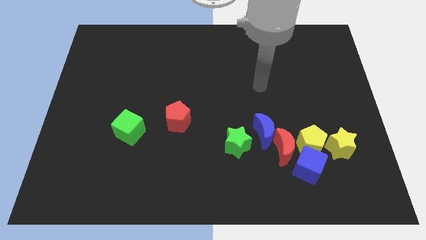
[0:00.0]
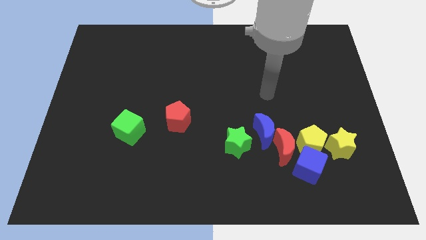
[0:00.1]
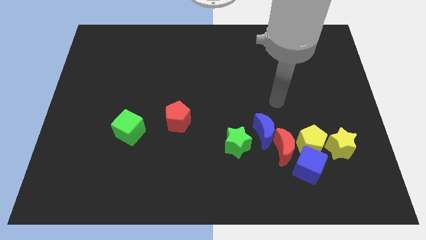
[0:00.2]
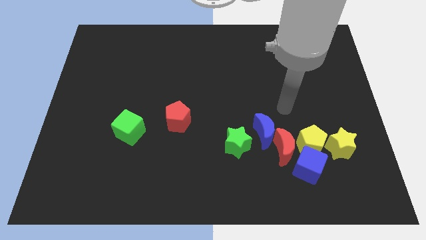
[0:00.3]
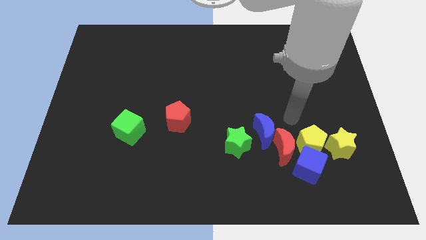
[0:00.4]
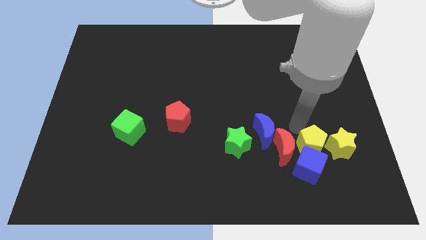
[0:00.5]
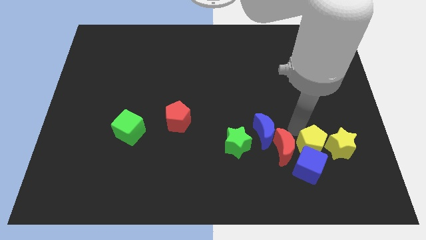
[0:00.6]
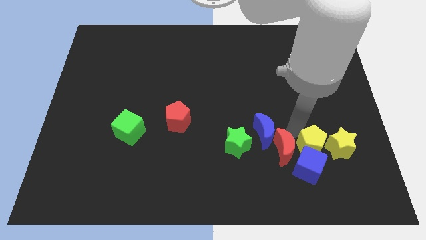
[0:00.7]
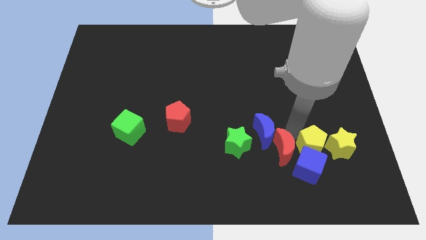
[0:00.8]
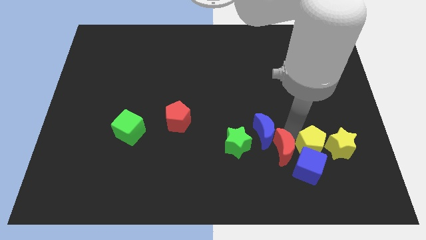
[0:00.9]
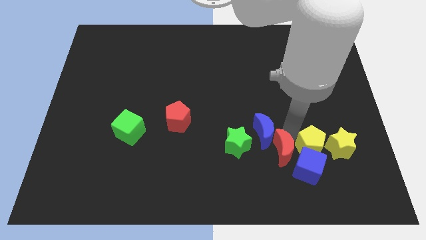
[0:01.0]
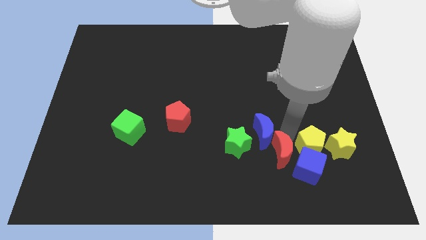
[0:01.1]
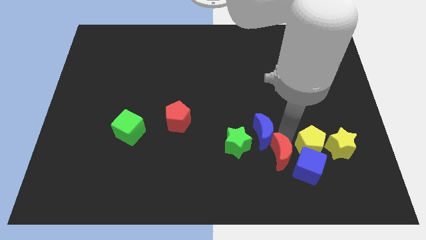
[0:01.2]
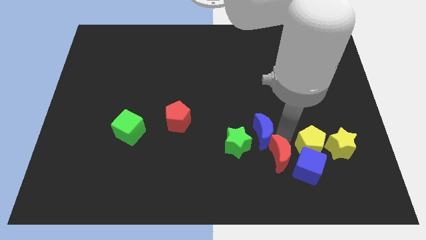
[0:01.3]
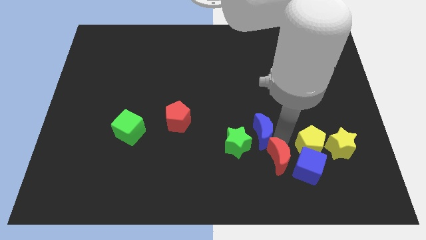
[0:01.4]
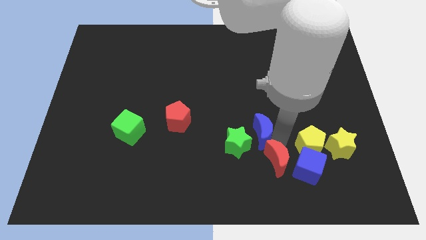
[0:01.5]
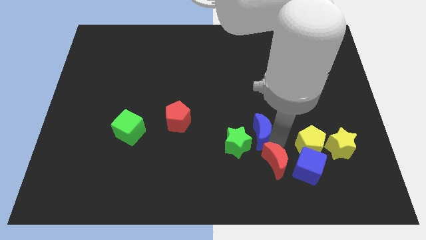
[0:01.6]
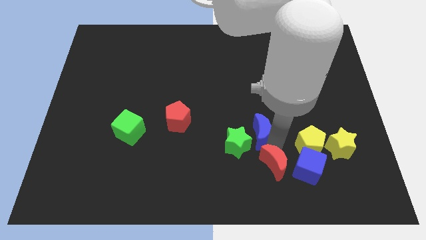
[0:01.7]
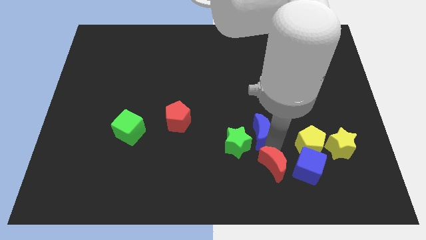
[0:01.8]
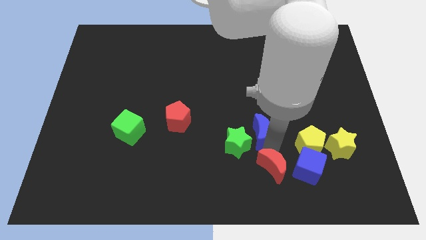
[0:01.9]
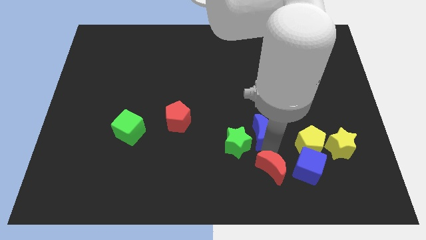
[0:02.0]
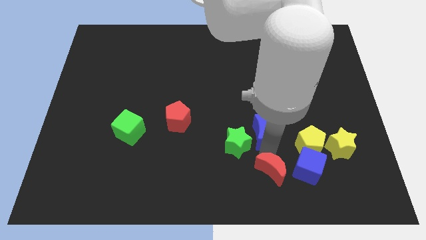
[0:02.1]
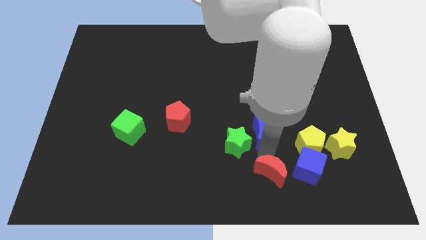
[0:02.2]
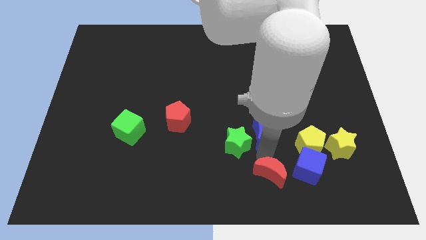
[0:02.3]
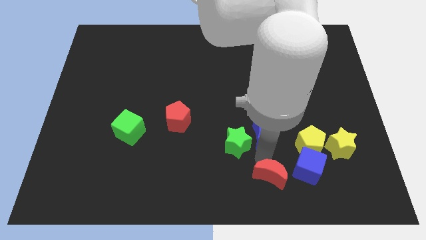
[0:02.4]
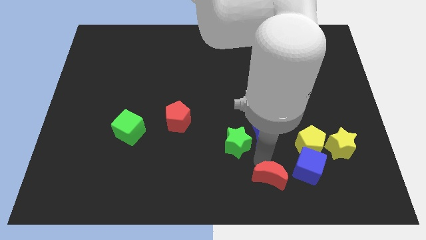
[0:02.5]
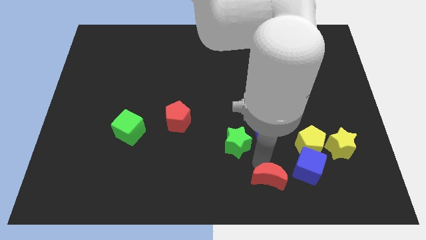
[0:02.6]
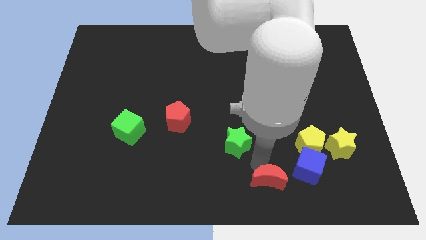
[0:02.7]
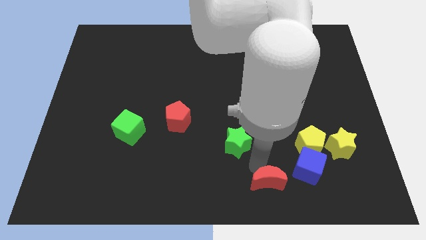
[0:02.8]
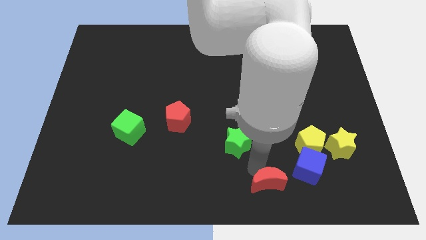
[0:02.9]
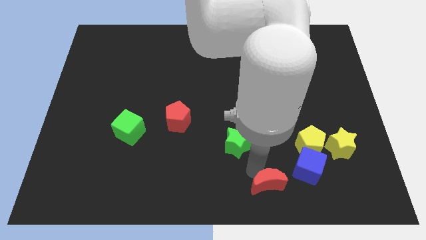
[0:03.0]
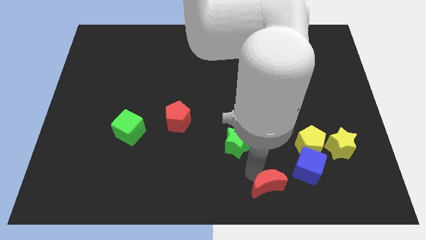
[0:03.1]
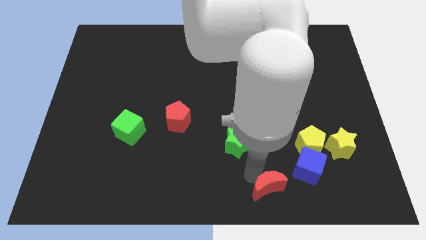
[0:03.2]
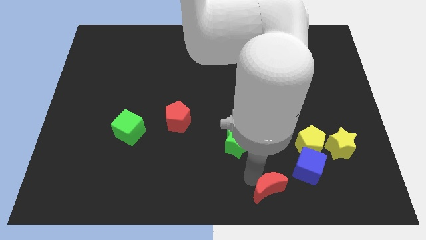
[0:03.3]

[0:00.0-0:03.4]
move the red moon away from the group

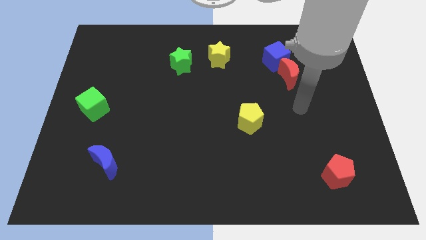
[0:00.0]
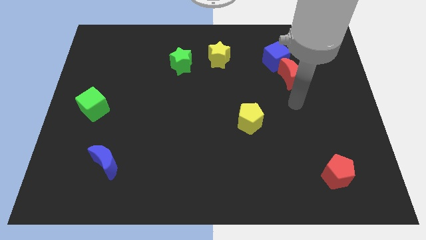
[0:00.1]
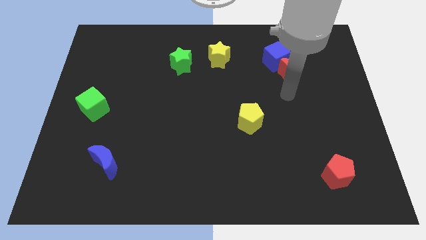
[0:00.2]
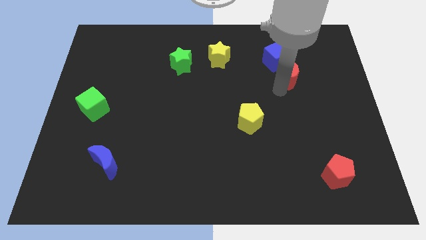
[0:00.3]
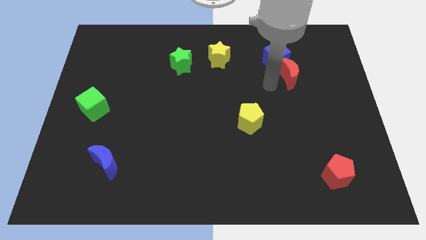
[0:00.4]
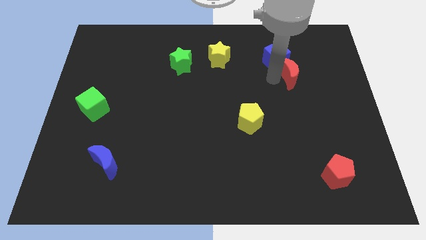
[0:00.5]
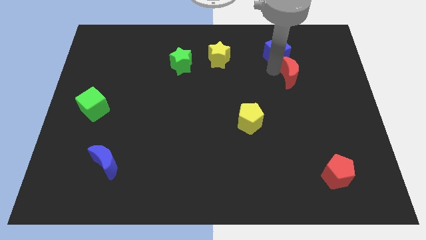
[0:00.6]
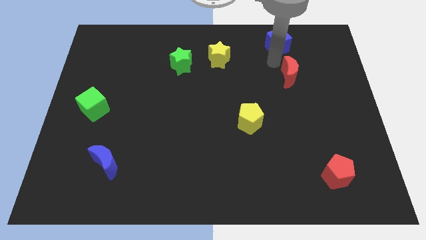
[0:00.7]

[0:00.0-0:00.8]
separate the red moon from the blue cube

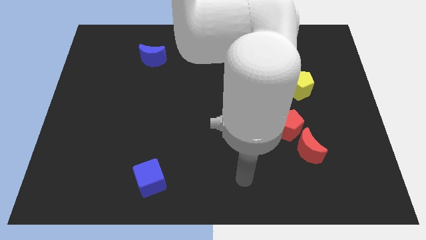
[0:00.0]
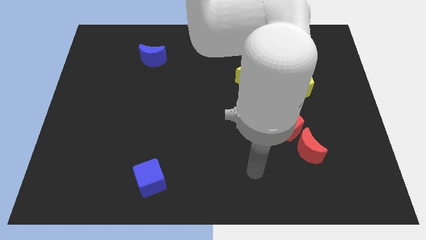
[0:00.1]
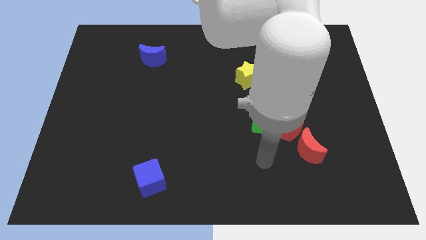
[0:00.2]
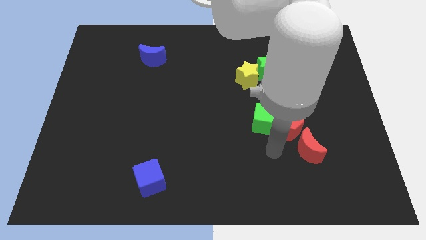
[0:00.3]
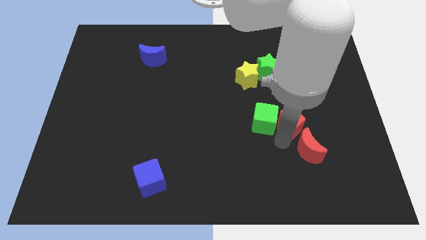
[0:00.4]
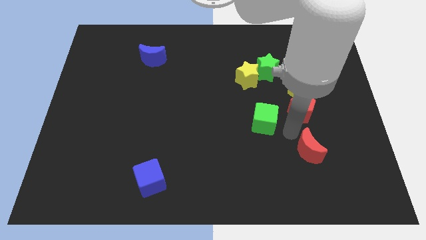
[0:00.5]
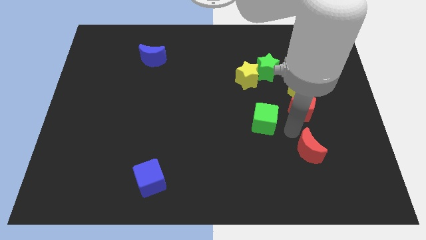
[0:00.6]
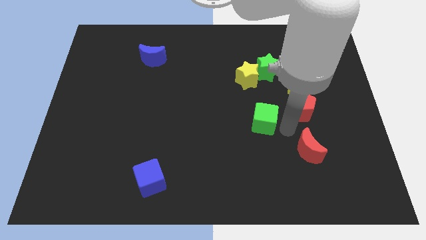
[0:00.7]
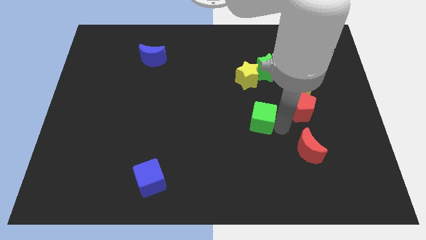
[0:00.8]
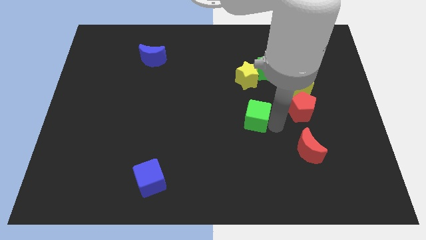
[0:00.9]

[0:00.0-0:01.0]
separate the green cube from the red pentagon

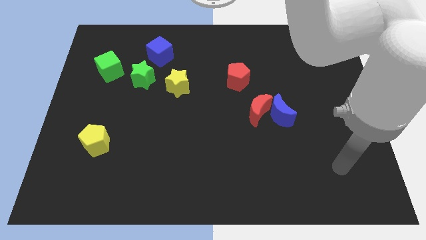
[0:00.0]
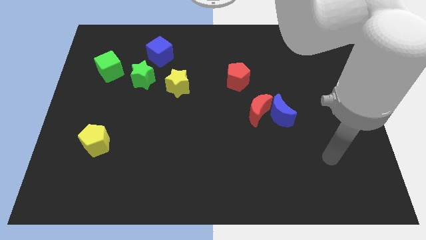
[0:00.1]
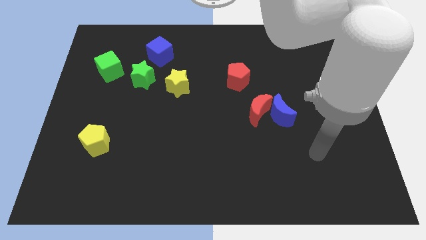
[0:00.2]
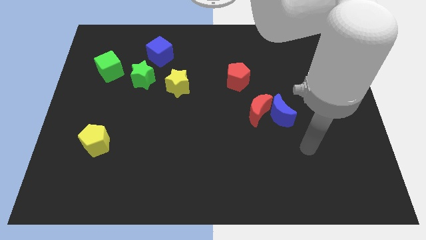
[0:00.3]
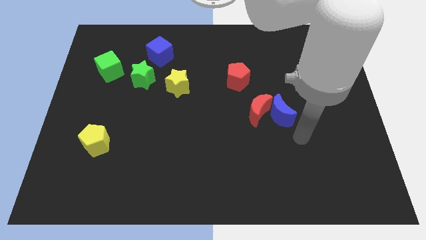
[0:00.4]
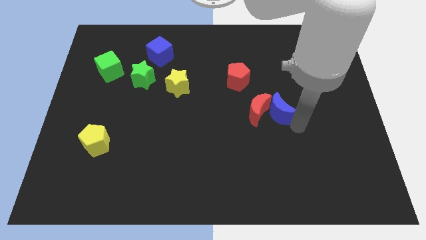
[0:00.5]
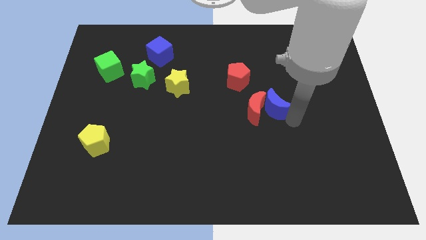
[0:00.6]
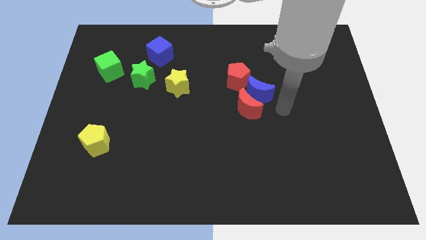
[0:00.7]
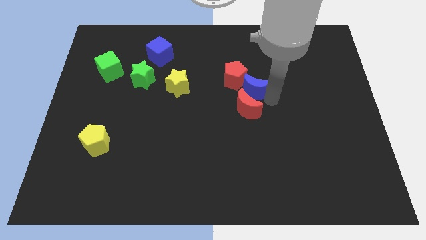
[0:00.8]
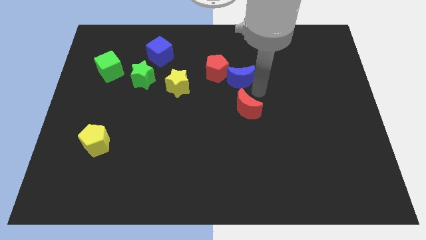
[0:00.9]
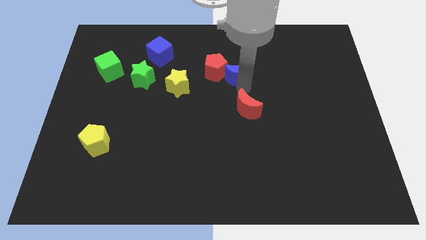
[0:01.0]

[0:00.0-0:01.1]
pull the red moon apart from the blue moon

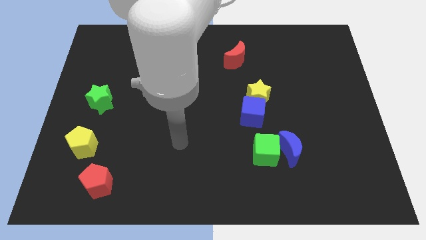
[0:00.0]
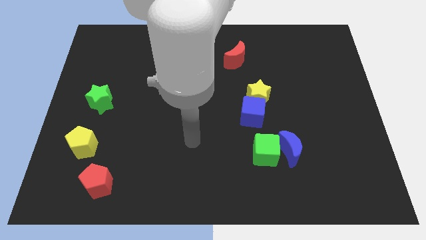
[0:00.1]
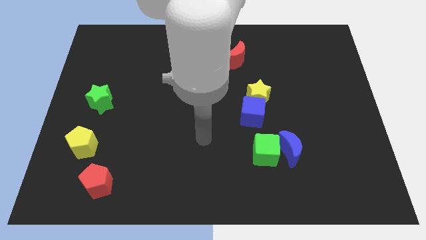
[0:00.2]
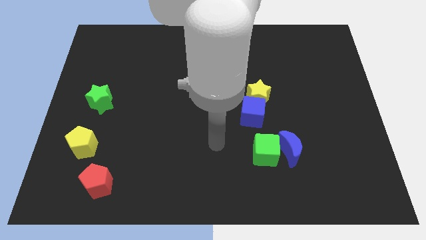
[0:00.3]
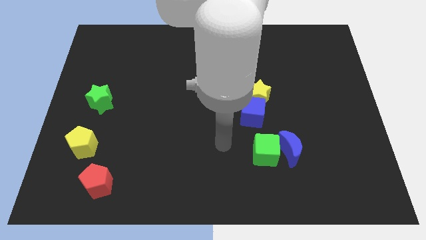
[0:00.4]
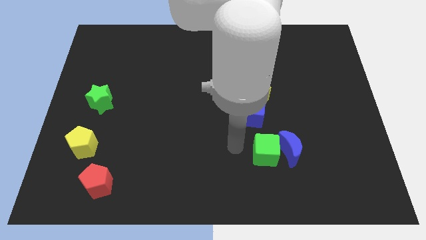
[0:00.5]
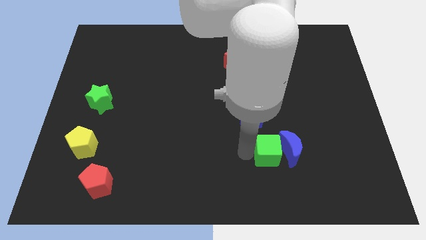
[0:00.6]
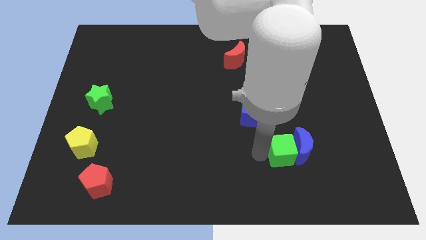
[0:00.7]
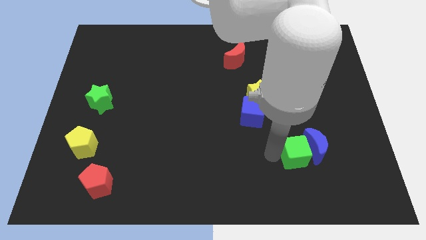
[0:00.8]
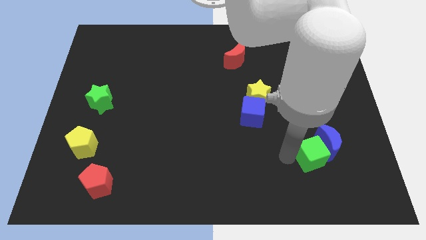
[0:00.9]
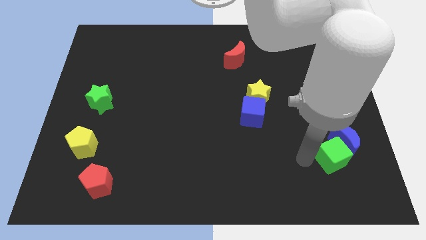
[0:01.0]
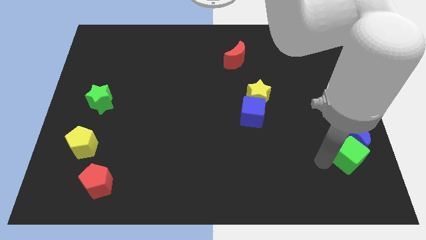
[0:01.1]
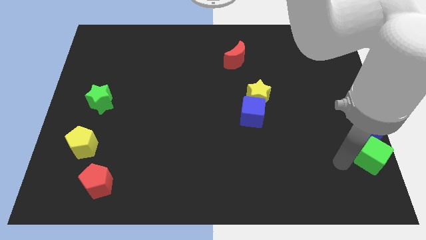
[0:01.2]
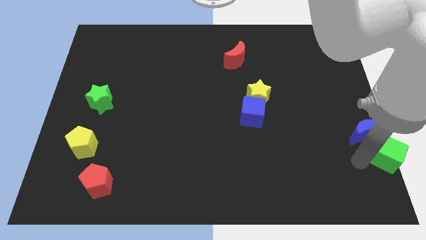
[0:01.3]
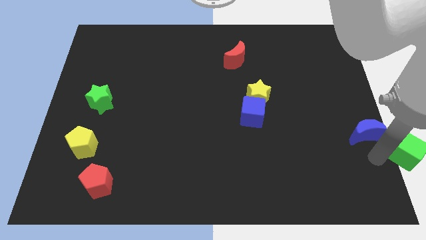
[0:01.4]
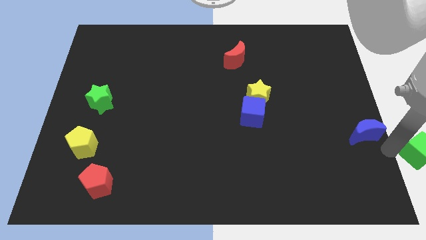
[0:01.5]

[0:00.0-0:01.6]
separate the blue moon from the green cube

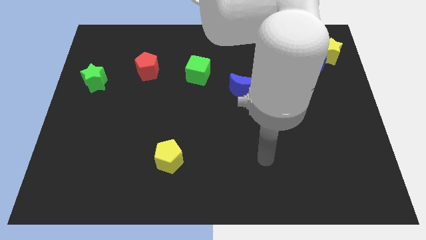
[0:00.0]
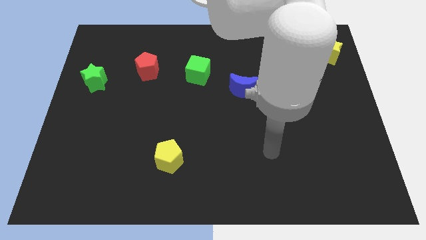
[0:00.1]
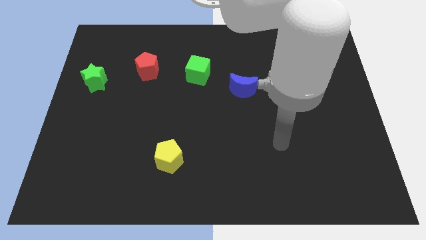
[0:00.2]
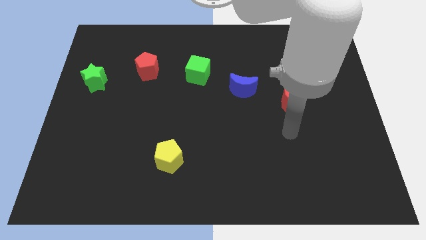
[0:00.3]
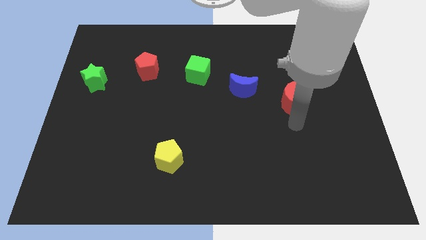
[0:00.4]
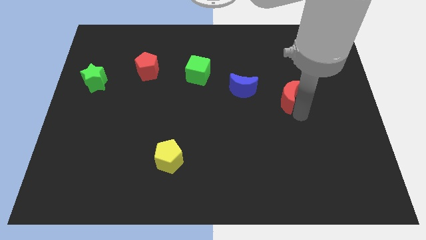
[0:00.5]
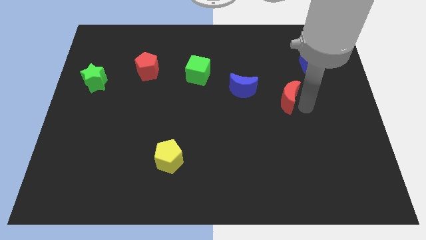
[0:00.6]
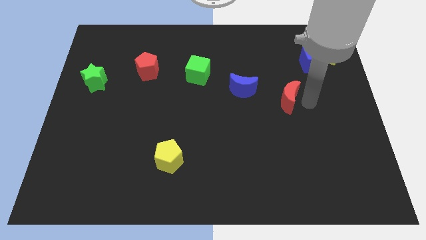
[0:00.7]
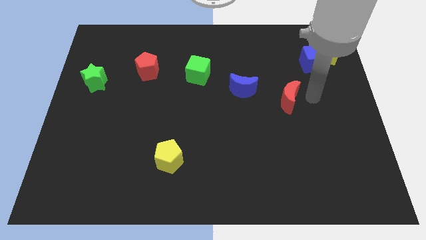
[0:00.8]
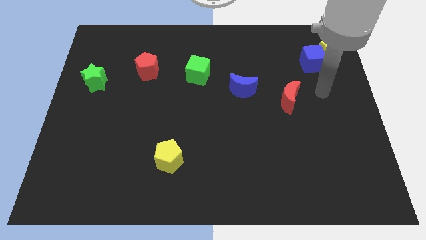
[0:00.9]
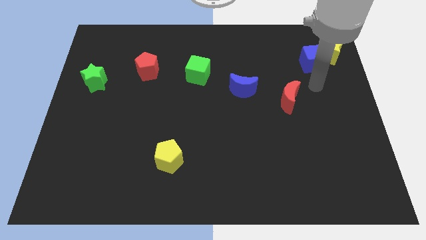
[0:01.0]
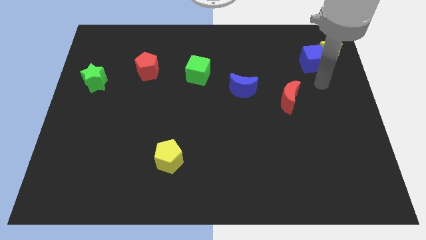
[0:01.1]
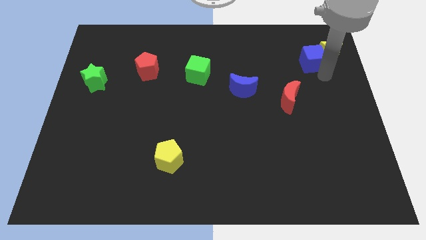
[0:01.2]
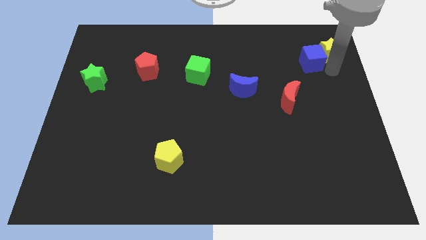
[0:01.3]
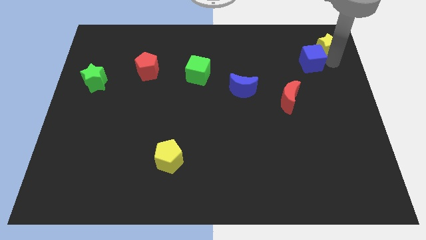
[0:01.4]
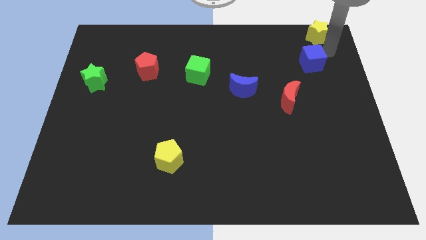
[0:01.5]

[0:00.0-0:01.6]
separate the blue cube from the yellow star
